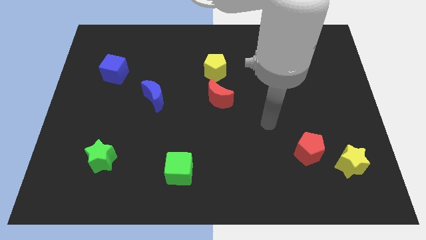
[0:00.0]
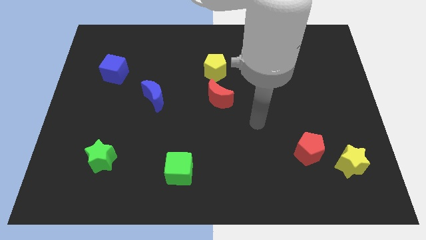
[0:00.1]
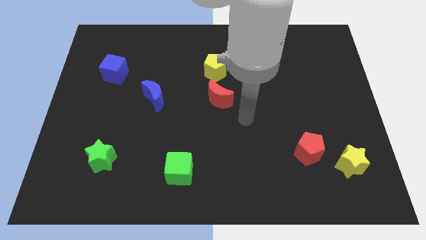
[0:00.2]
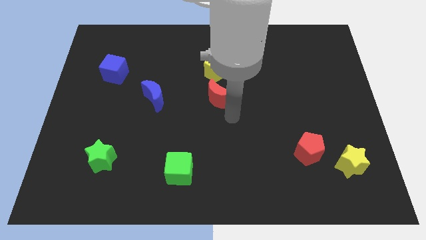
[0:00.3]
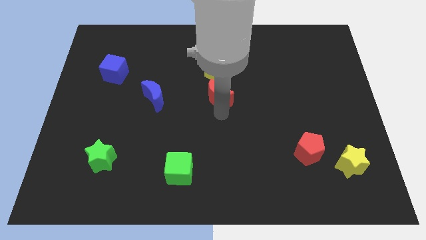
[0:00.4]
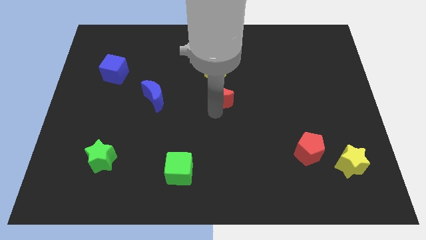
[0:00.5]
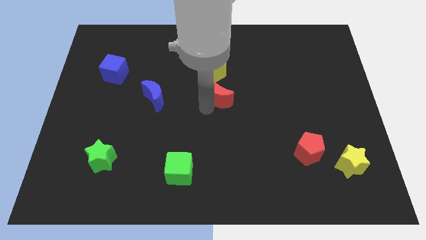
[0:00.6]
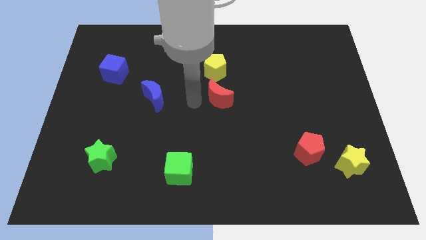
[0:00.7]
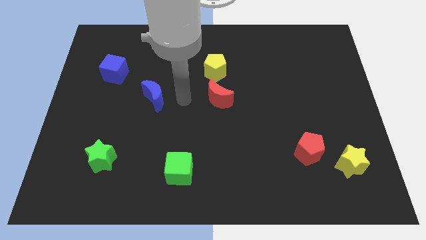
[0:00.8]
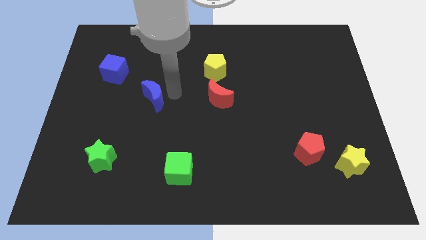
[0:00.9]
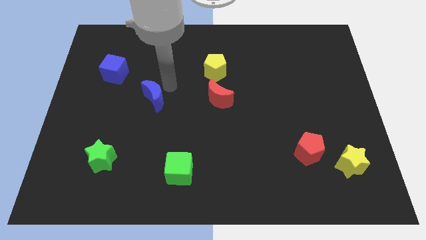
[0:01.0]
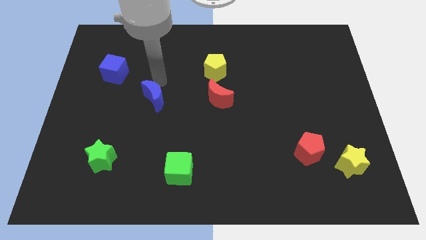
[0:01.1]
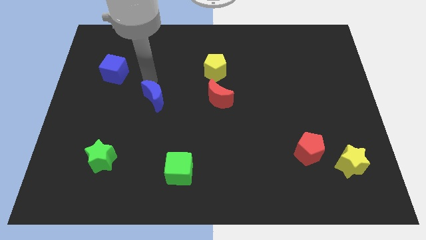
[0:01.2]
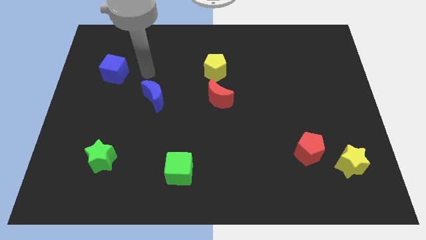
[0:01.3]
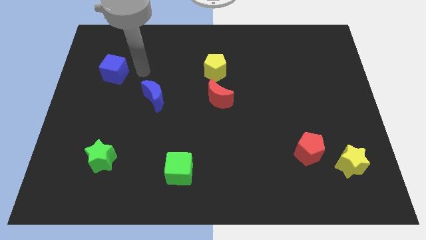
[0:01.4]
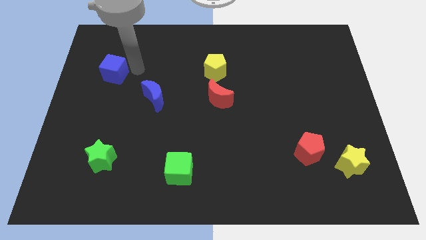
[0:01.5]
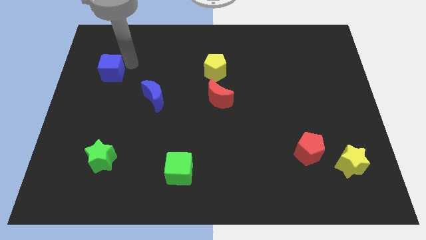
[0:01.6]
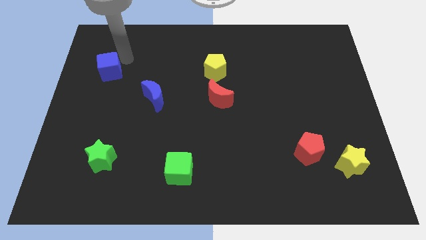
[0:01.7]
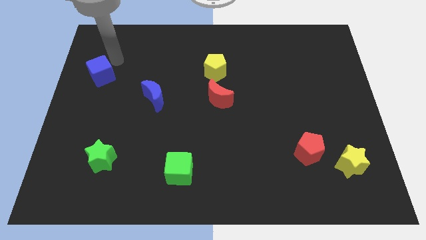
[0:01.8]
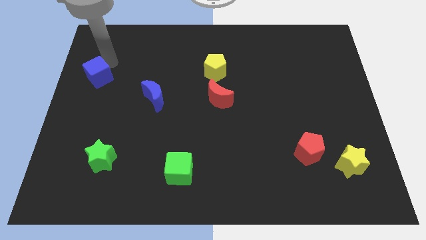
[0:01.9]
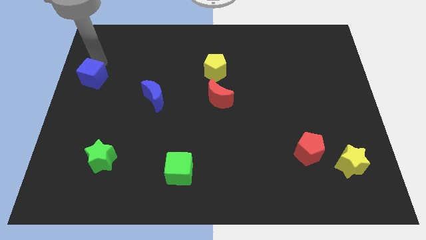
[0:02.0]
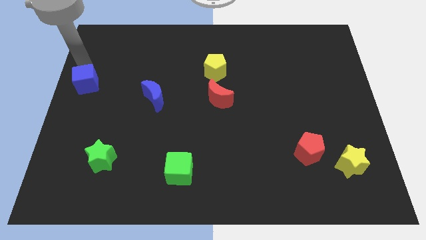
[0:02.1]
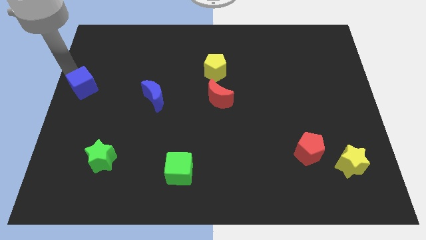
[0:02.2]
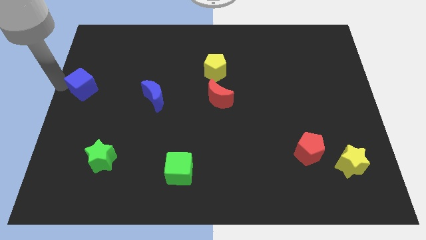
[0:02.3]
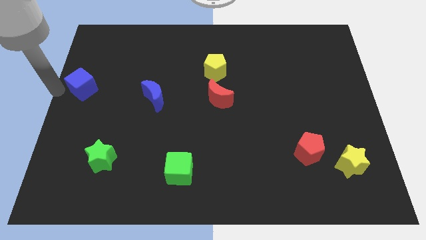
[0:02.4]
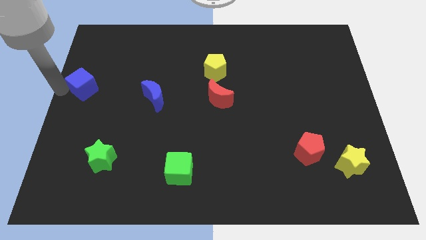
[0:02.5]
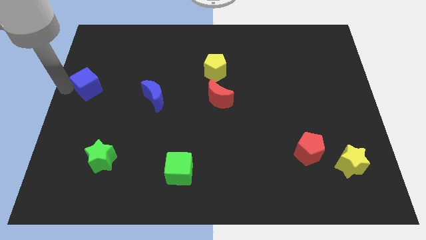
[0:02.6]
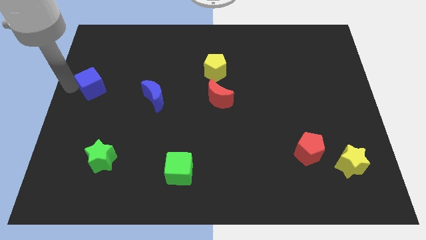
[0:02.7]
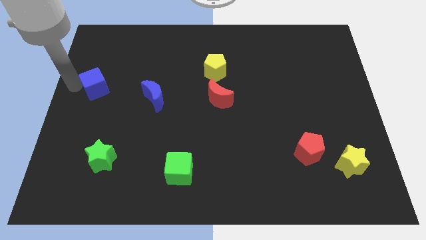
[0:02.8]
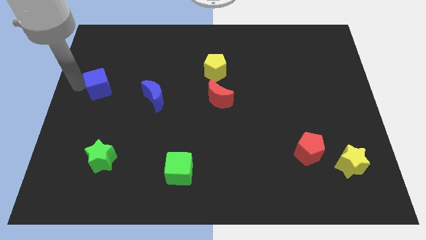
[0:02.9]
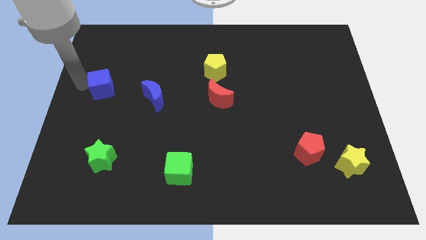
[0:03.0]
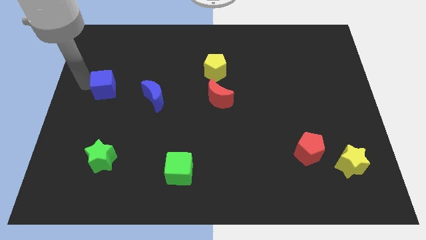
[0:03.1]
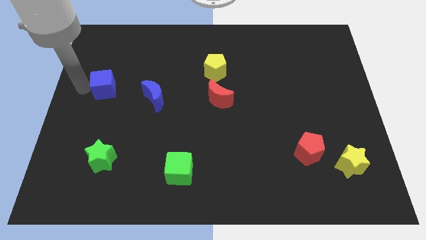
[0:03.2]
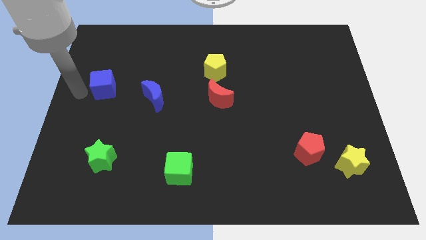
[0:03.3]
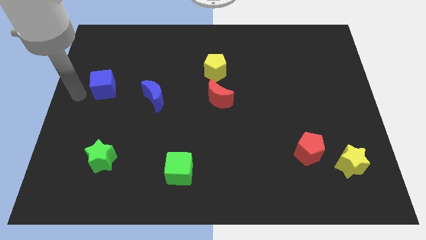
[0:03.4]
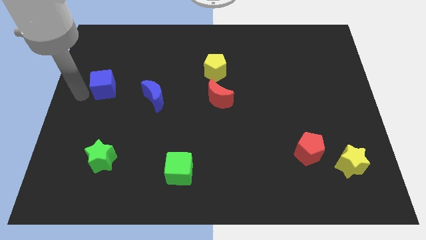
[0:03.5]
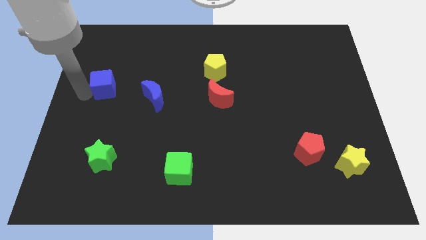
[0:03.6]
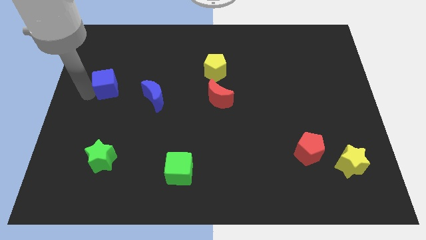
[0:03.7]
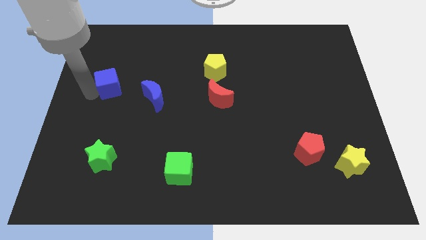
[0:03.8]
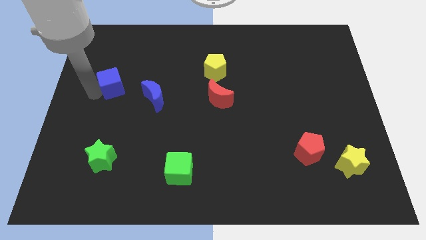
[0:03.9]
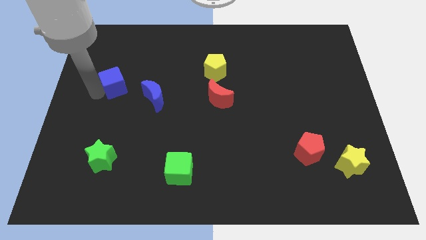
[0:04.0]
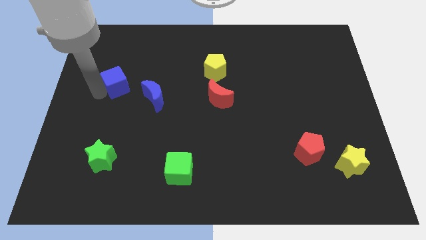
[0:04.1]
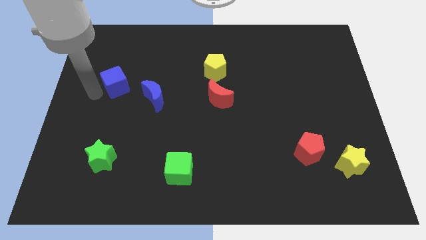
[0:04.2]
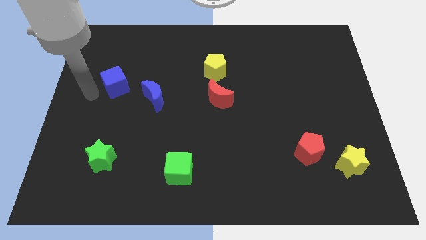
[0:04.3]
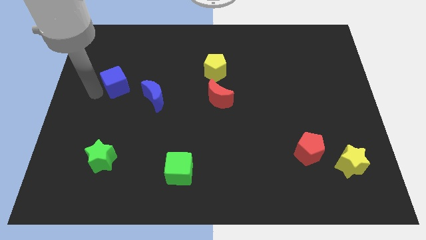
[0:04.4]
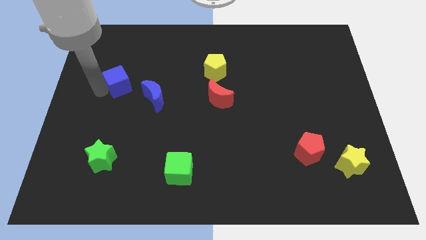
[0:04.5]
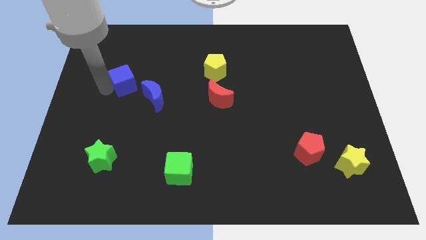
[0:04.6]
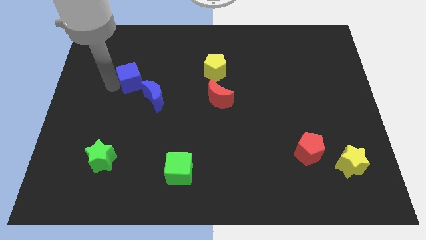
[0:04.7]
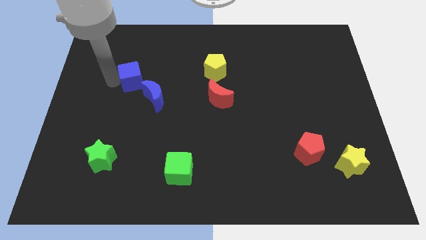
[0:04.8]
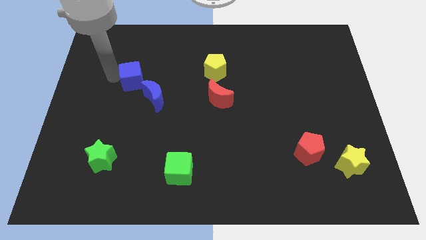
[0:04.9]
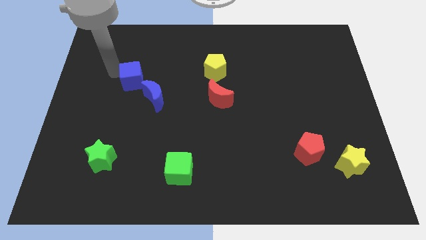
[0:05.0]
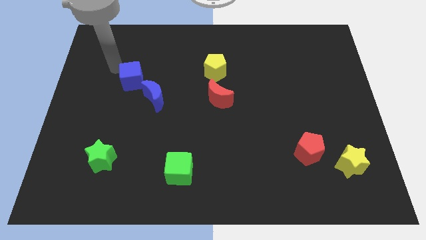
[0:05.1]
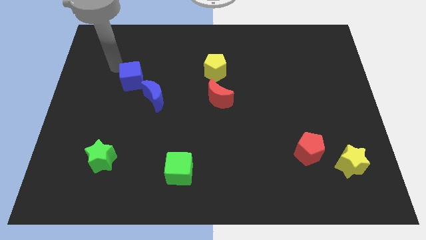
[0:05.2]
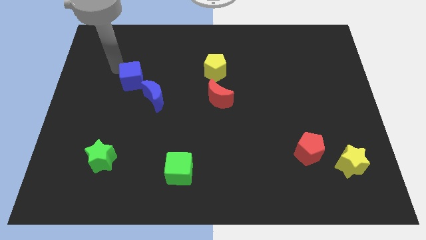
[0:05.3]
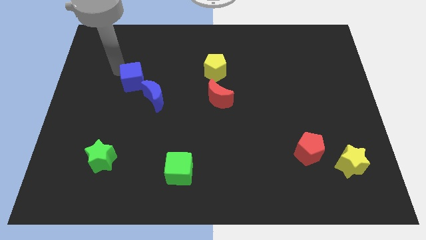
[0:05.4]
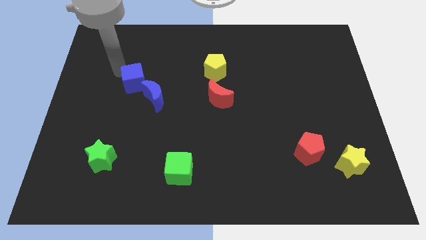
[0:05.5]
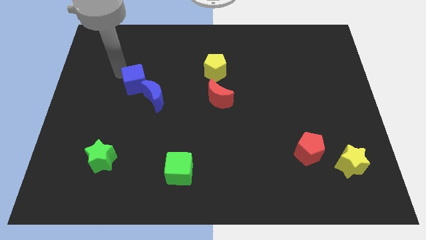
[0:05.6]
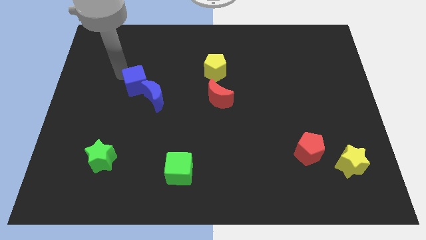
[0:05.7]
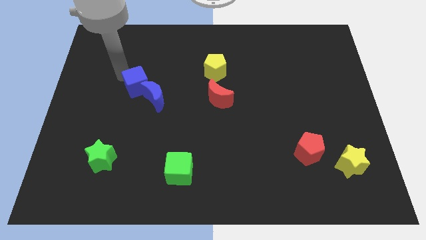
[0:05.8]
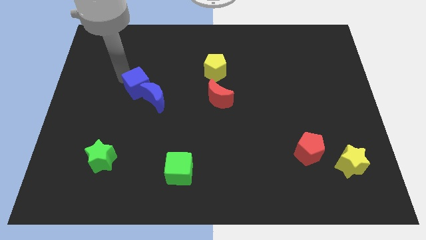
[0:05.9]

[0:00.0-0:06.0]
put the blue cube to the blue moon
